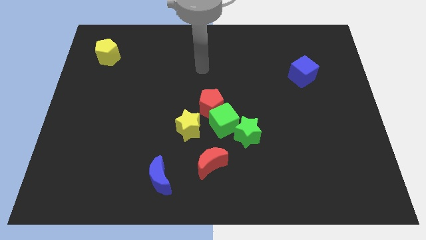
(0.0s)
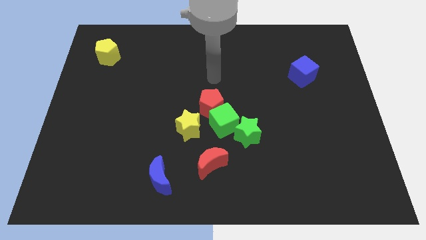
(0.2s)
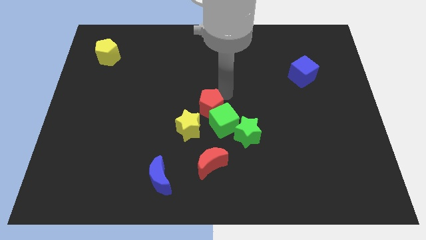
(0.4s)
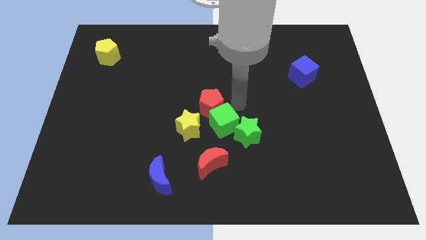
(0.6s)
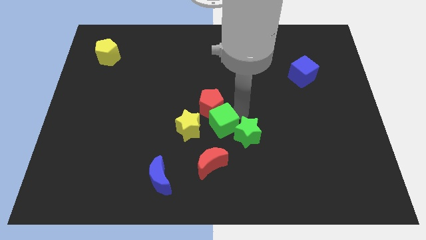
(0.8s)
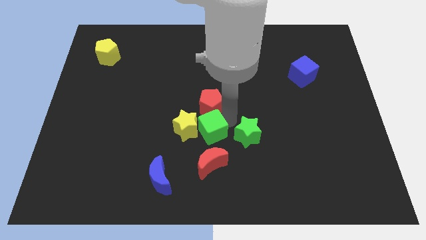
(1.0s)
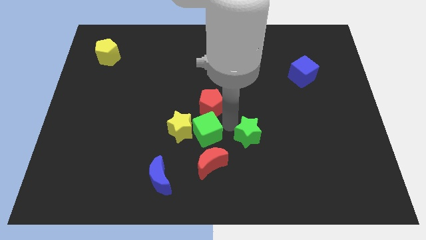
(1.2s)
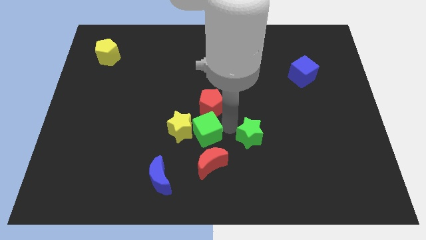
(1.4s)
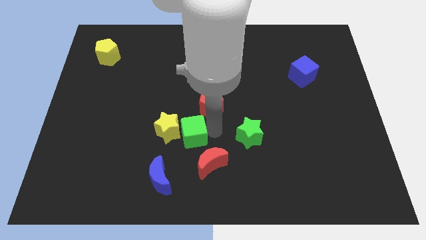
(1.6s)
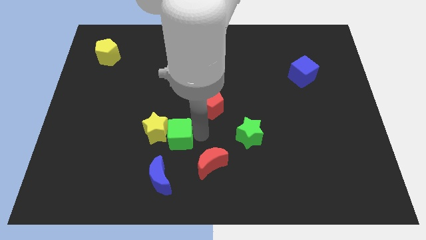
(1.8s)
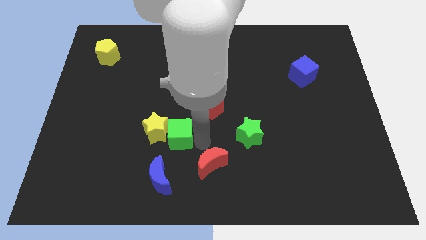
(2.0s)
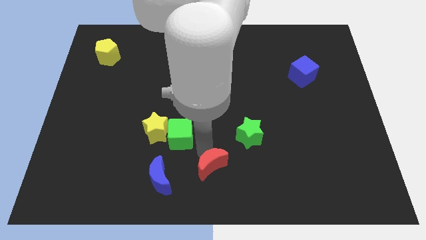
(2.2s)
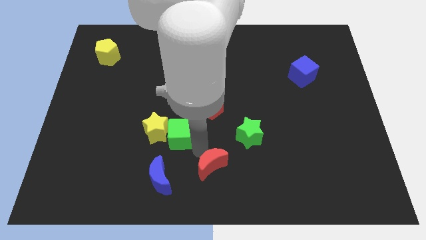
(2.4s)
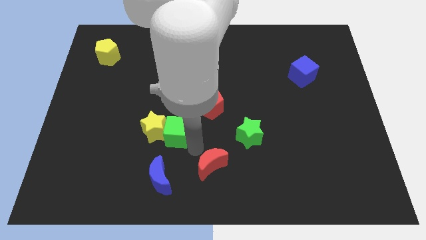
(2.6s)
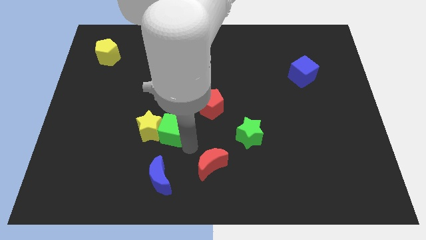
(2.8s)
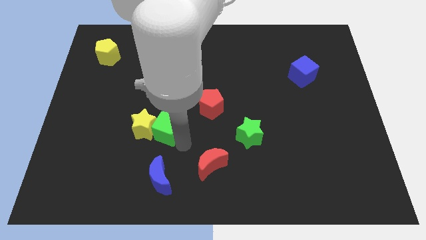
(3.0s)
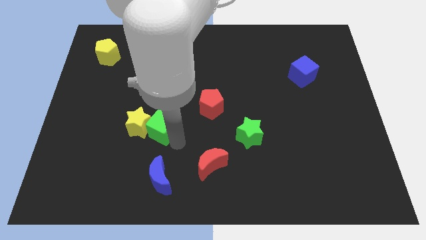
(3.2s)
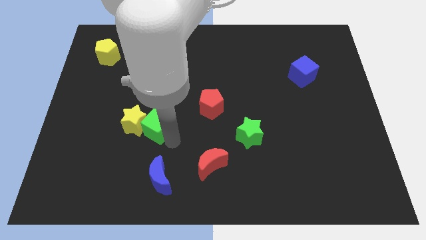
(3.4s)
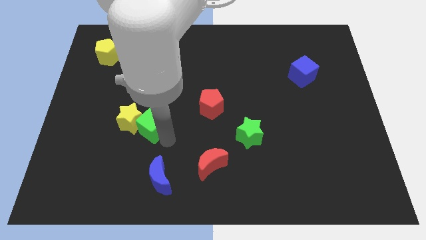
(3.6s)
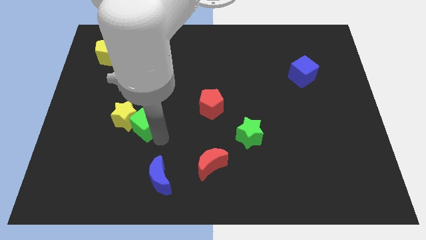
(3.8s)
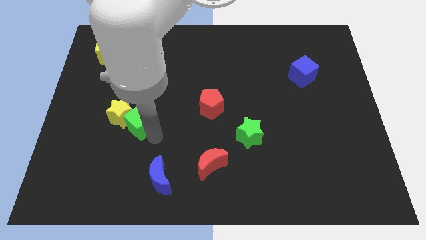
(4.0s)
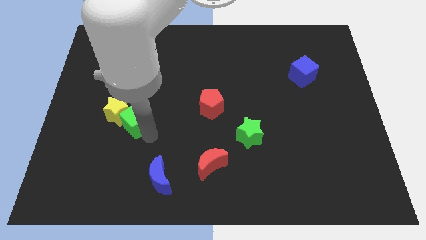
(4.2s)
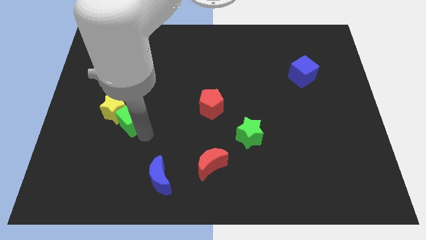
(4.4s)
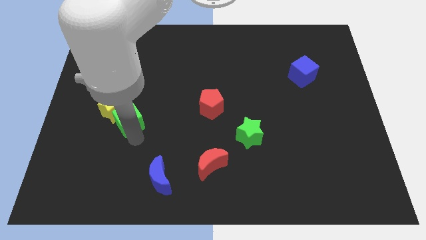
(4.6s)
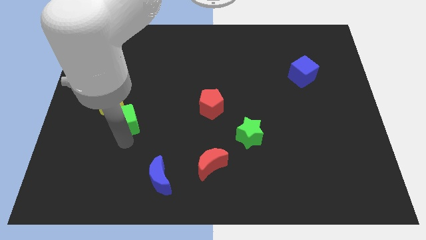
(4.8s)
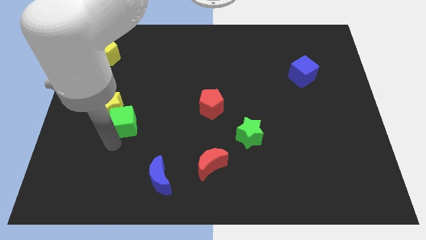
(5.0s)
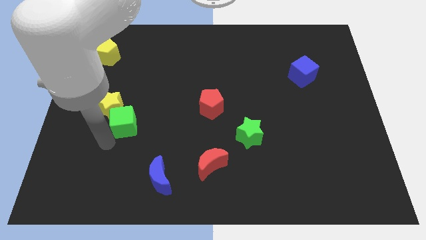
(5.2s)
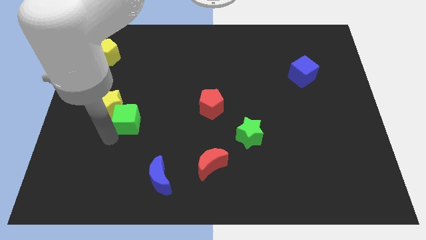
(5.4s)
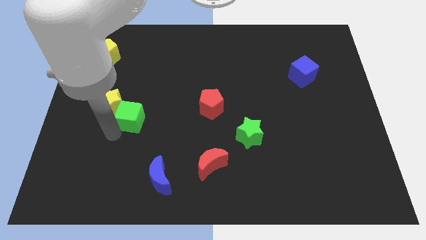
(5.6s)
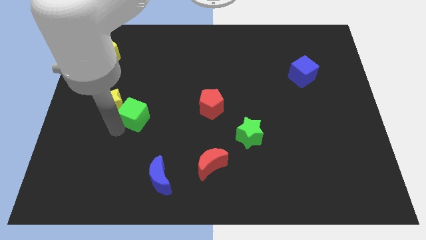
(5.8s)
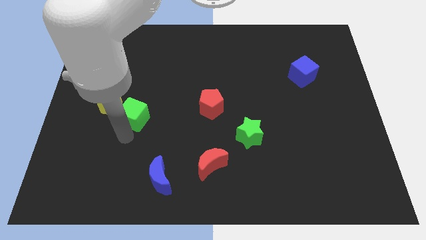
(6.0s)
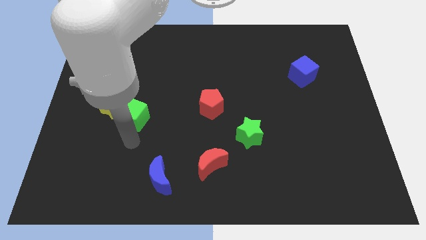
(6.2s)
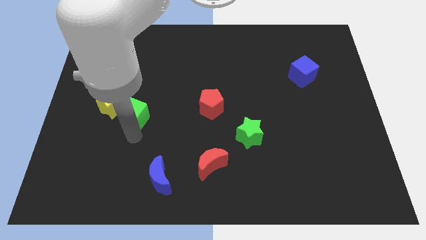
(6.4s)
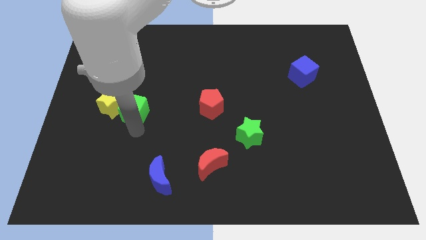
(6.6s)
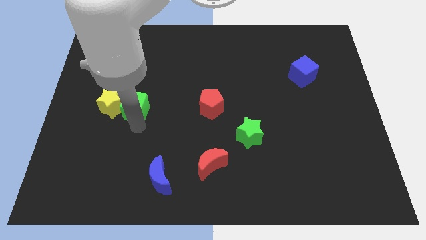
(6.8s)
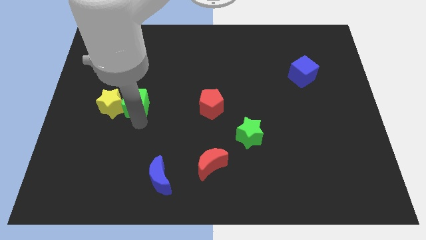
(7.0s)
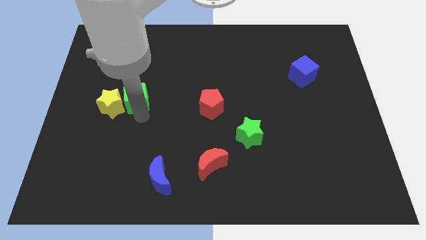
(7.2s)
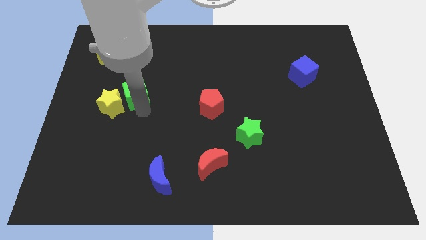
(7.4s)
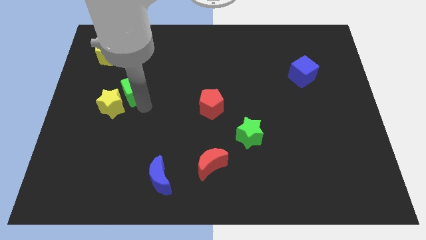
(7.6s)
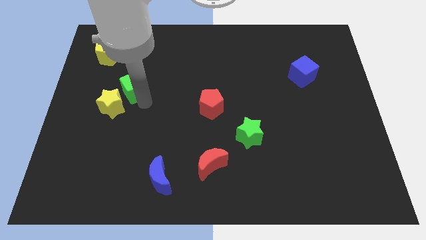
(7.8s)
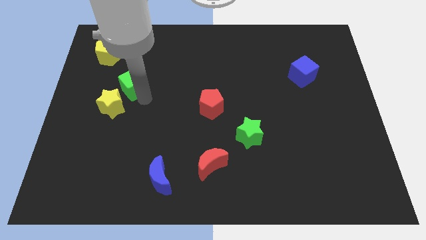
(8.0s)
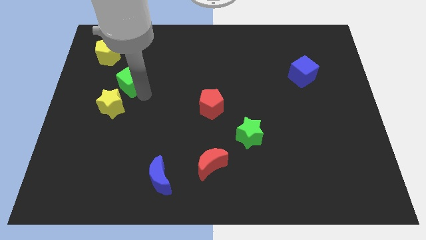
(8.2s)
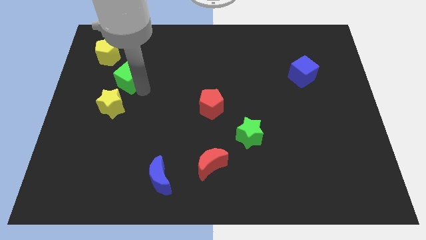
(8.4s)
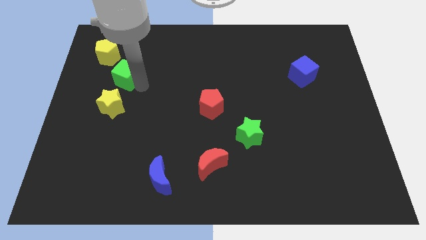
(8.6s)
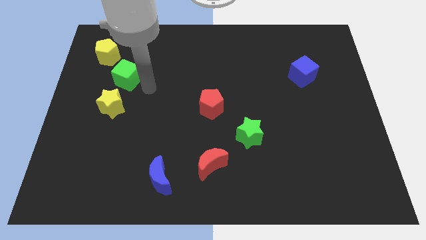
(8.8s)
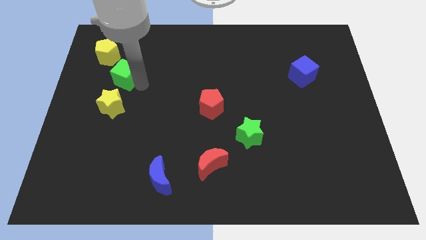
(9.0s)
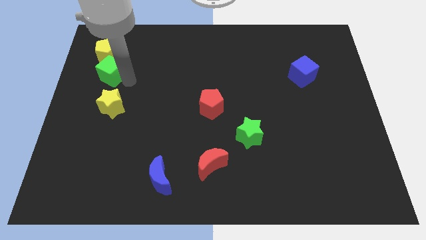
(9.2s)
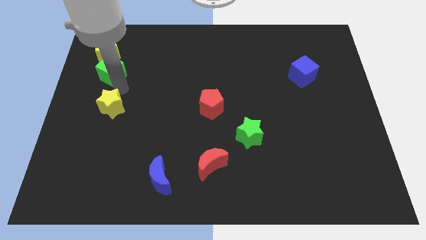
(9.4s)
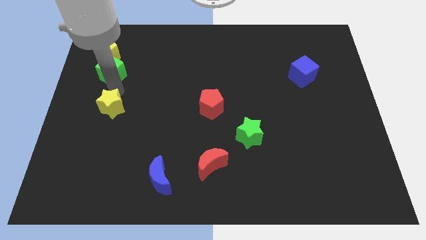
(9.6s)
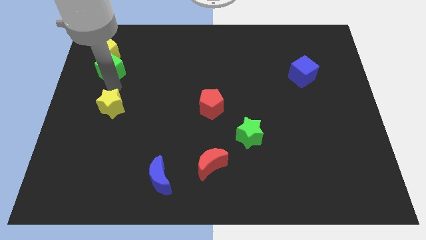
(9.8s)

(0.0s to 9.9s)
slide the green cube to the yellow pentagon

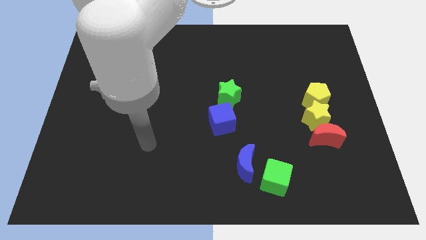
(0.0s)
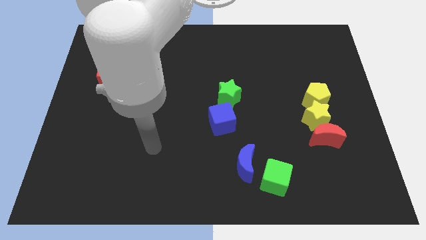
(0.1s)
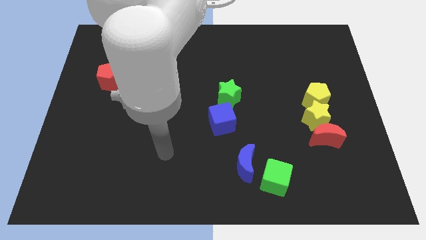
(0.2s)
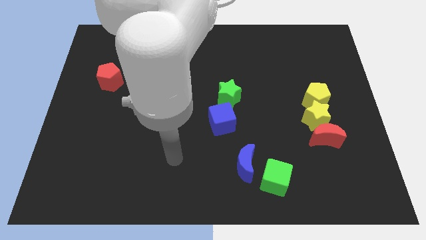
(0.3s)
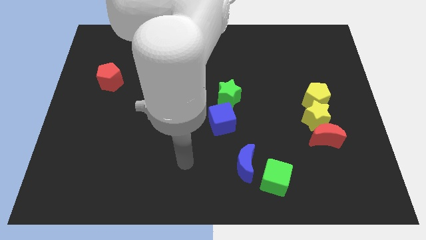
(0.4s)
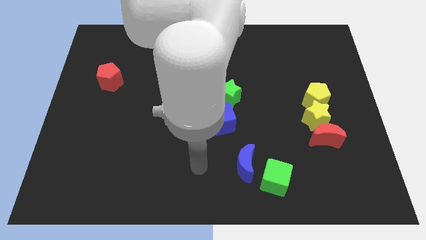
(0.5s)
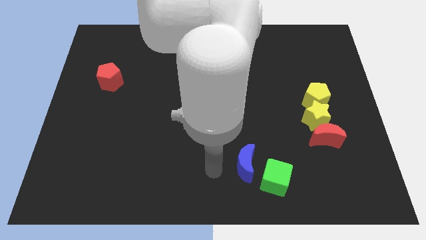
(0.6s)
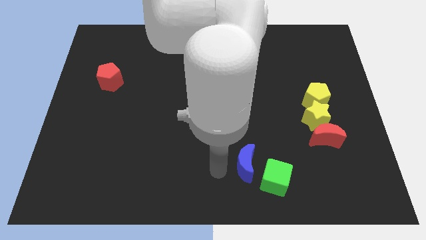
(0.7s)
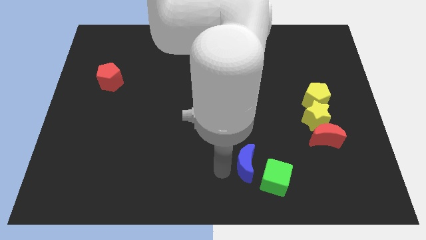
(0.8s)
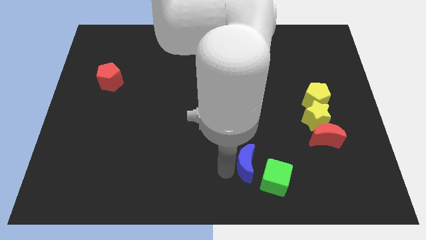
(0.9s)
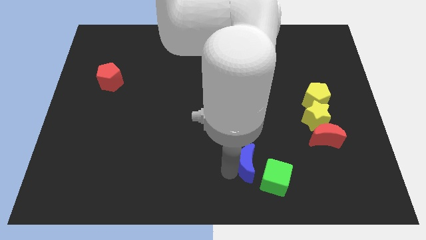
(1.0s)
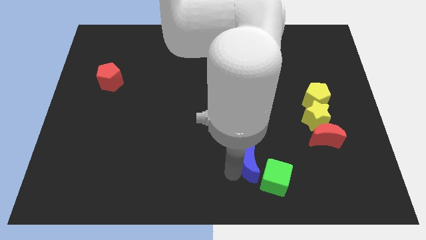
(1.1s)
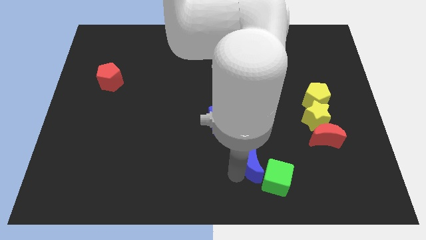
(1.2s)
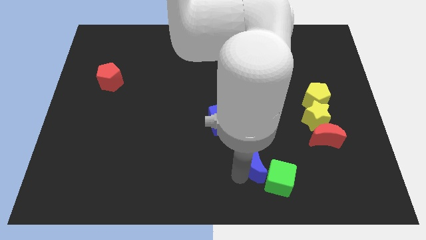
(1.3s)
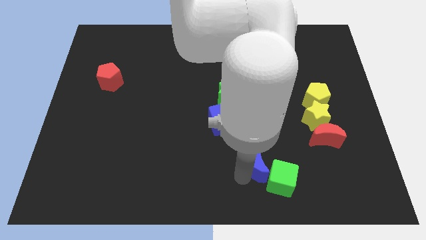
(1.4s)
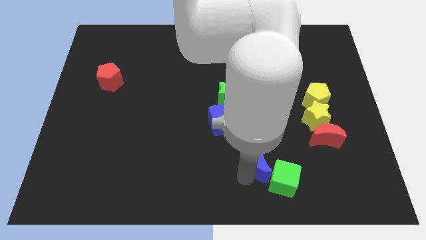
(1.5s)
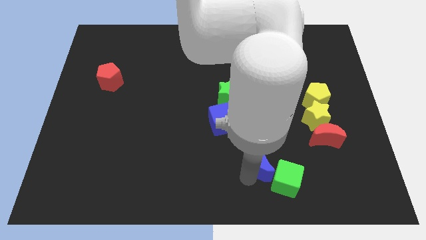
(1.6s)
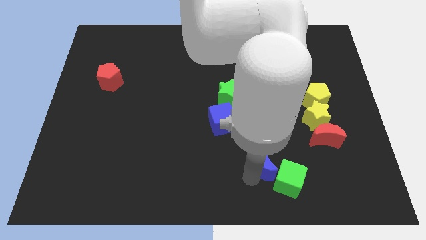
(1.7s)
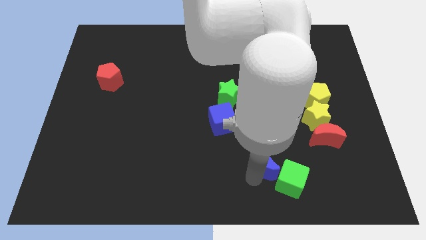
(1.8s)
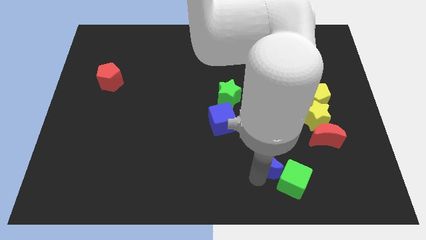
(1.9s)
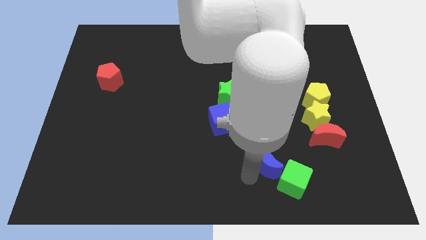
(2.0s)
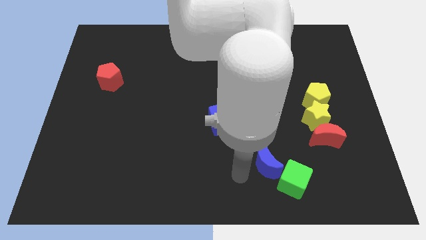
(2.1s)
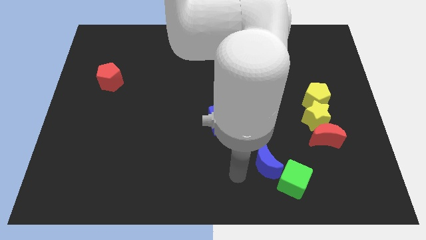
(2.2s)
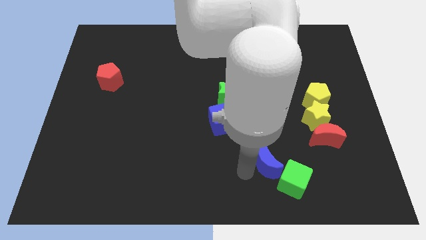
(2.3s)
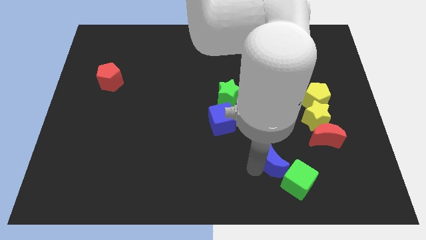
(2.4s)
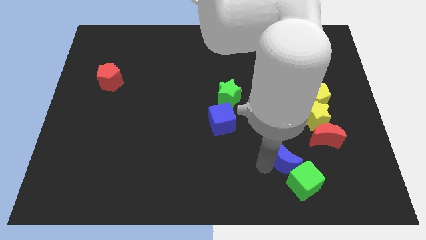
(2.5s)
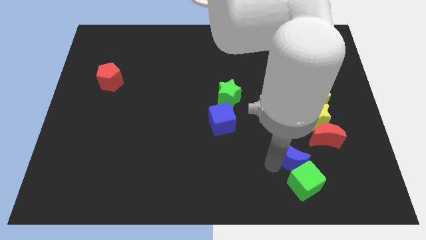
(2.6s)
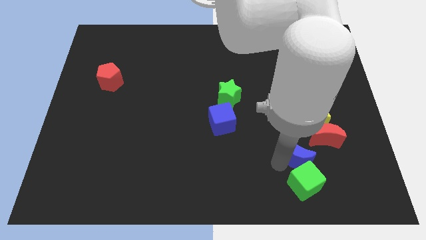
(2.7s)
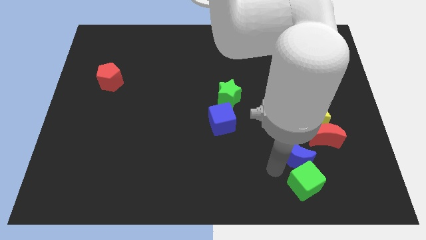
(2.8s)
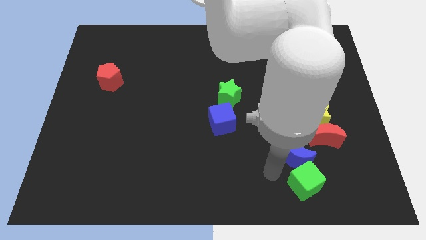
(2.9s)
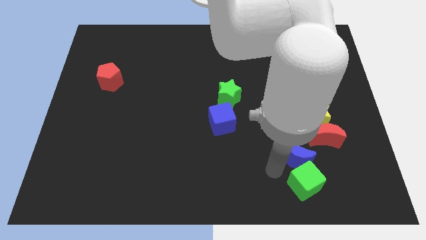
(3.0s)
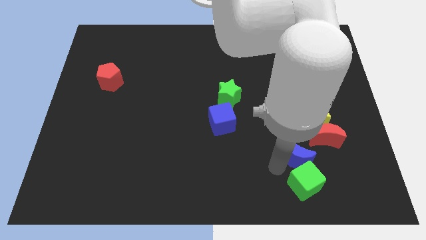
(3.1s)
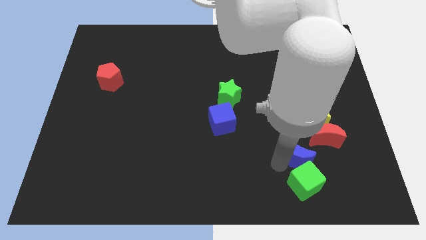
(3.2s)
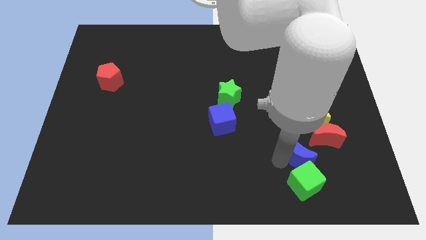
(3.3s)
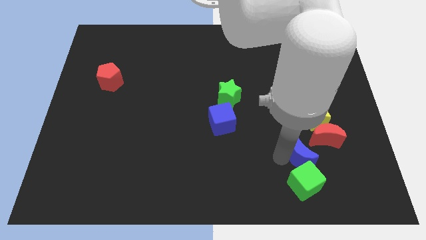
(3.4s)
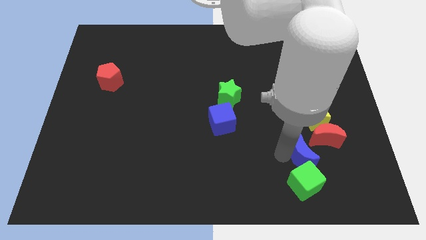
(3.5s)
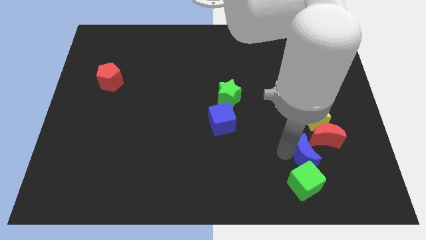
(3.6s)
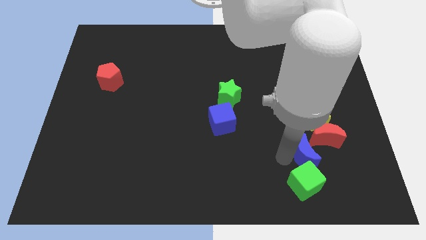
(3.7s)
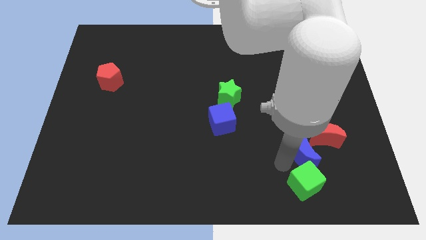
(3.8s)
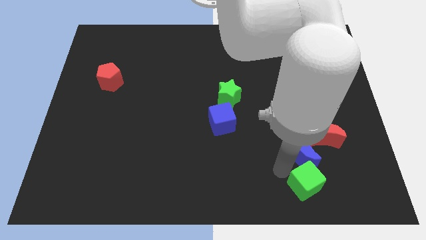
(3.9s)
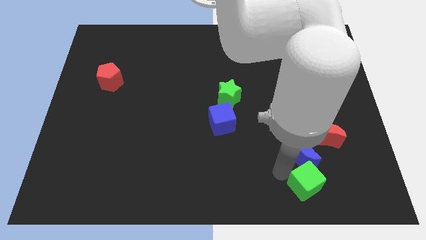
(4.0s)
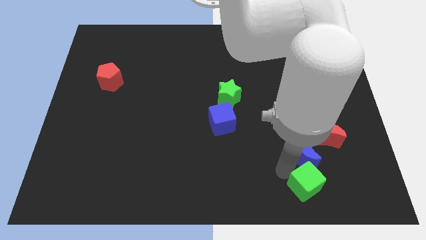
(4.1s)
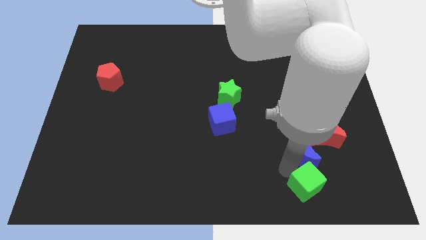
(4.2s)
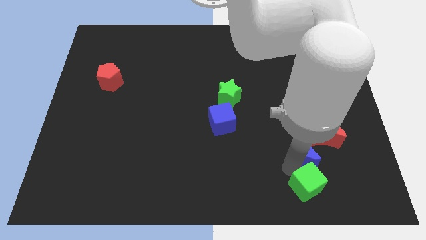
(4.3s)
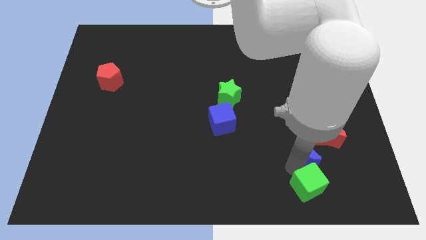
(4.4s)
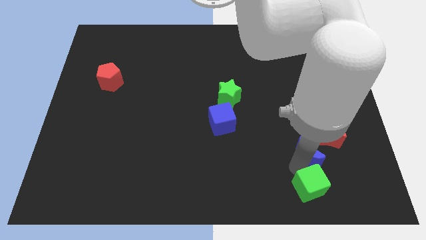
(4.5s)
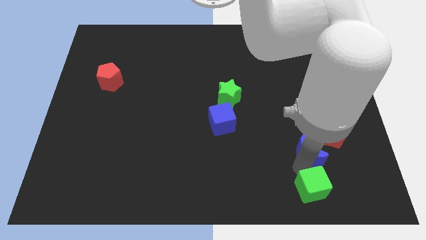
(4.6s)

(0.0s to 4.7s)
move the blue moon towards the red moon
